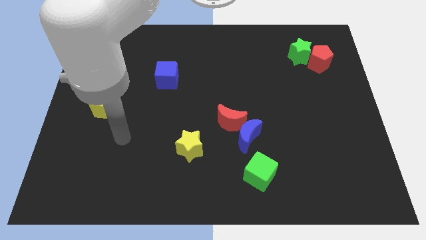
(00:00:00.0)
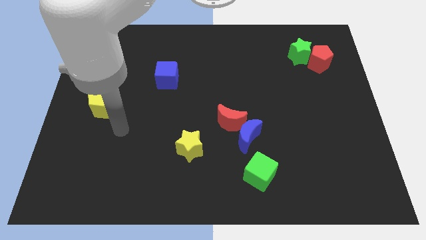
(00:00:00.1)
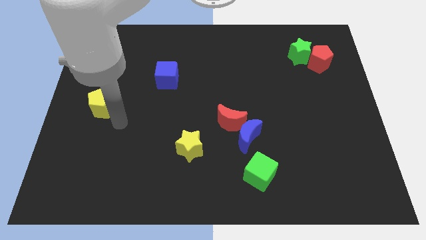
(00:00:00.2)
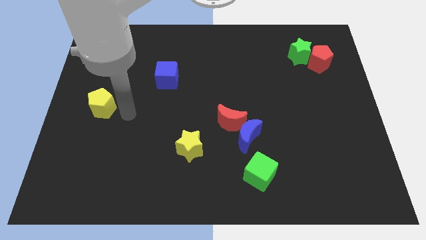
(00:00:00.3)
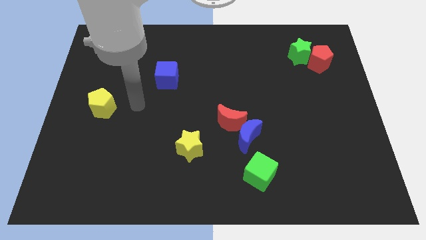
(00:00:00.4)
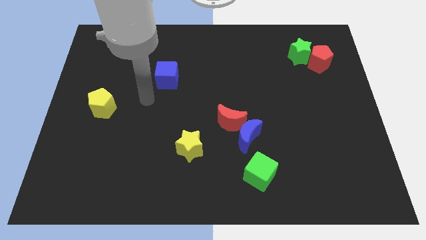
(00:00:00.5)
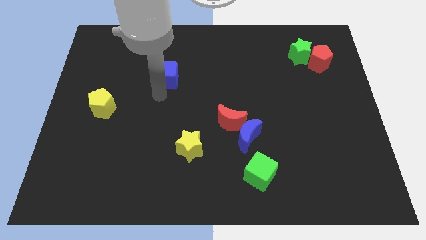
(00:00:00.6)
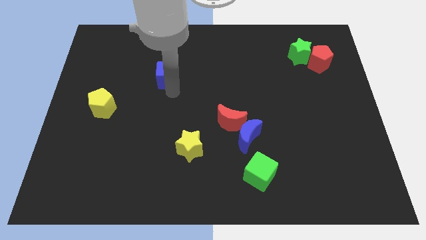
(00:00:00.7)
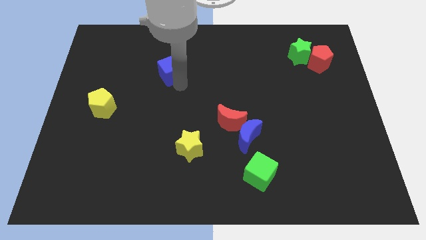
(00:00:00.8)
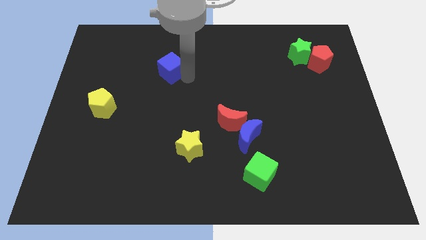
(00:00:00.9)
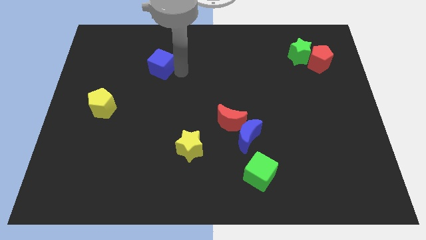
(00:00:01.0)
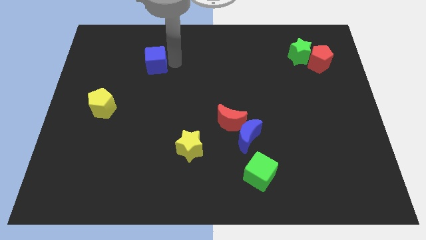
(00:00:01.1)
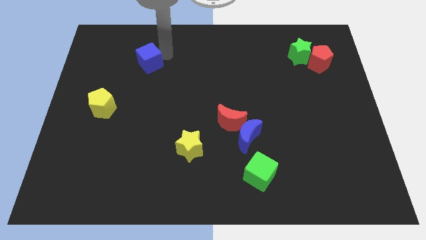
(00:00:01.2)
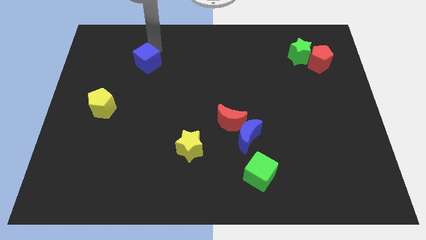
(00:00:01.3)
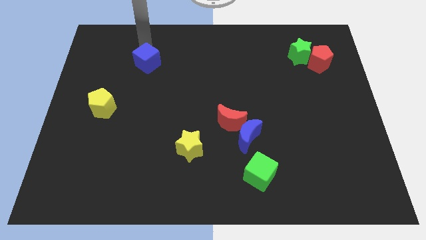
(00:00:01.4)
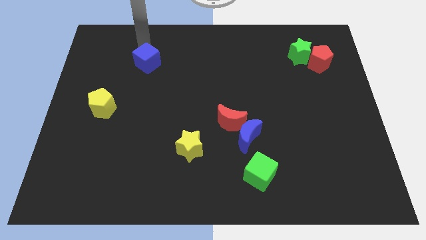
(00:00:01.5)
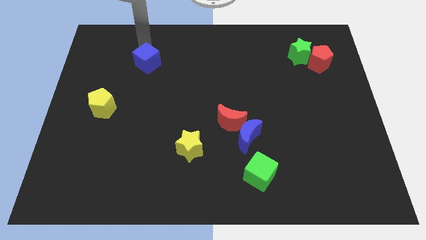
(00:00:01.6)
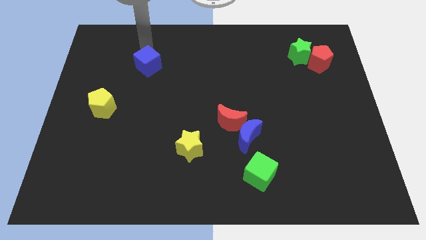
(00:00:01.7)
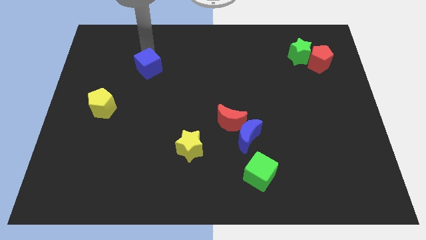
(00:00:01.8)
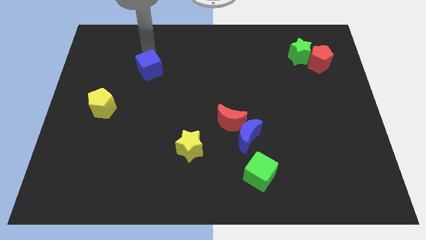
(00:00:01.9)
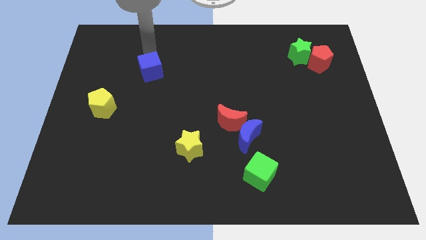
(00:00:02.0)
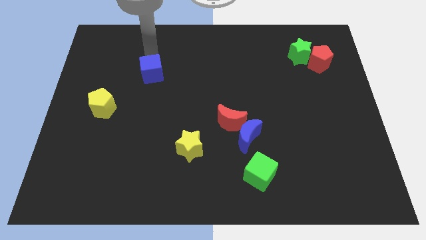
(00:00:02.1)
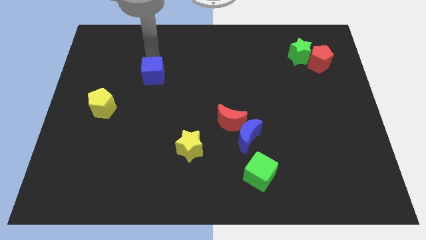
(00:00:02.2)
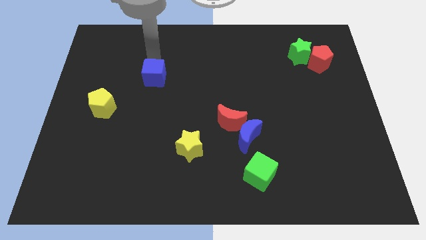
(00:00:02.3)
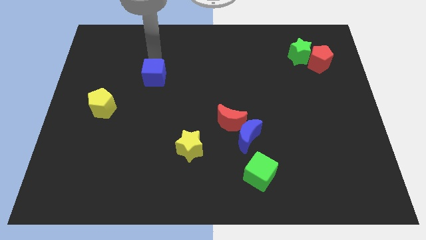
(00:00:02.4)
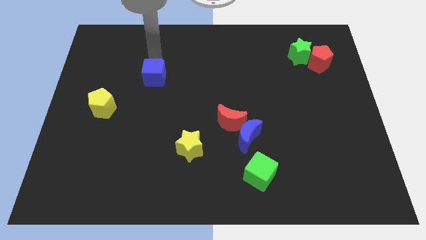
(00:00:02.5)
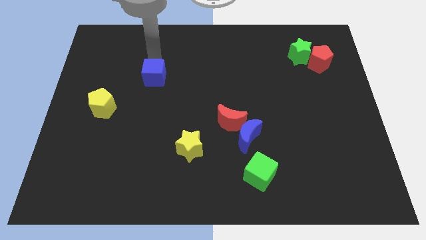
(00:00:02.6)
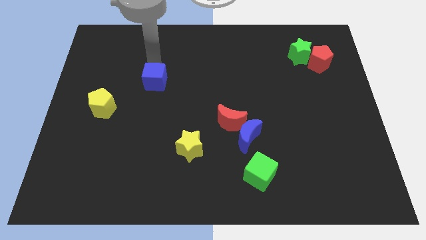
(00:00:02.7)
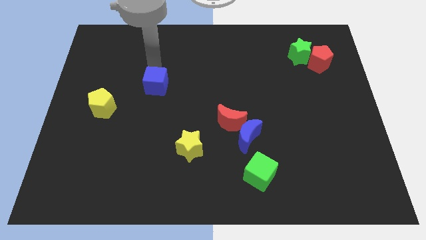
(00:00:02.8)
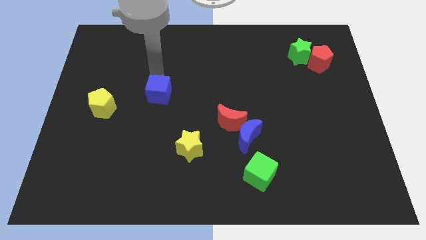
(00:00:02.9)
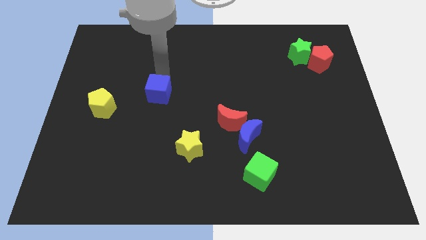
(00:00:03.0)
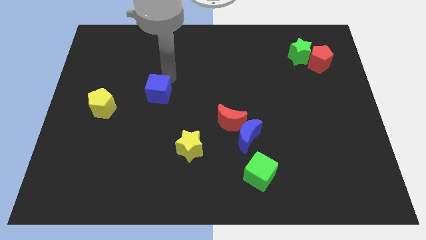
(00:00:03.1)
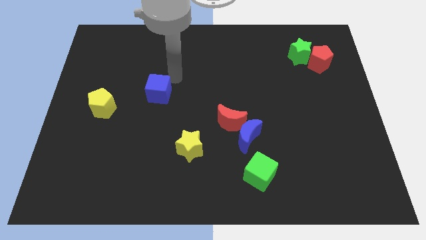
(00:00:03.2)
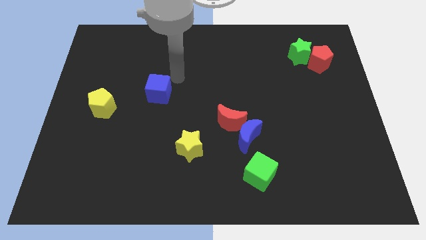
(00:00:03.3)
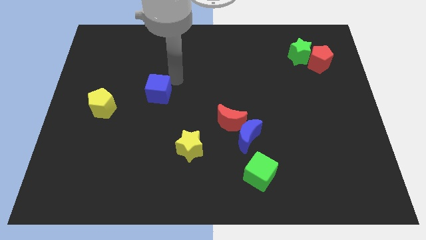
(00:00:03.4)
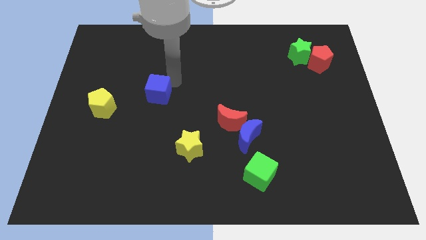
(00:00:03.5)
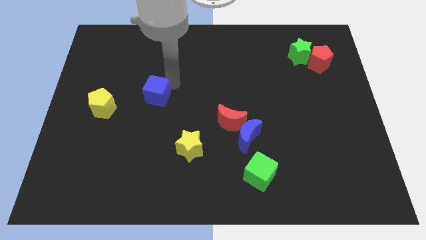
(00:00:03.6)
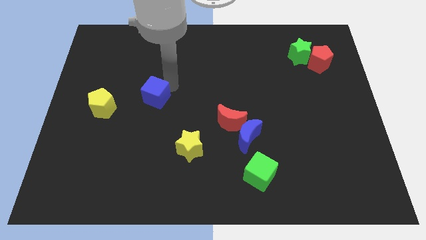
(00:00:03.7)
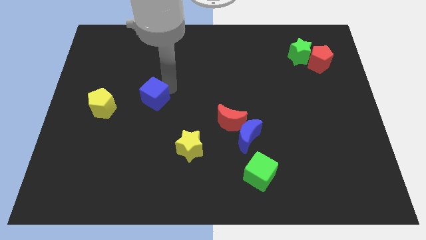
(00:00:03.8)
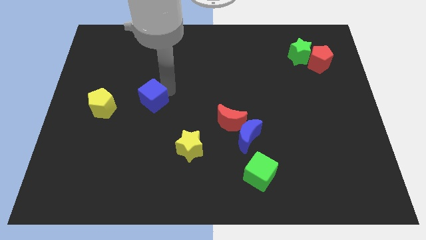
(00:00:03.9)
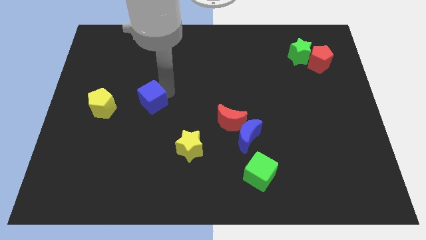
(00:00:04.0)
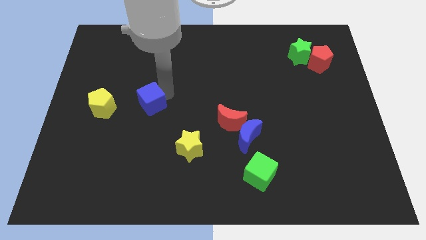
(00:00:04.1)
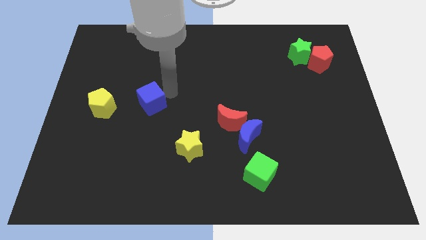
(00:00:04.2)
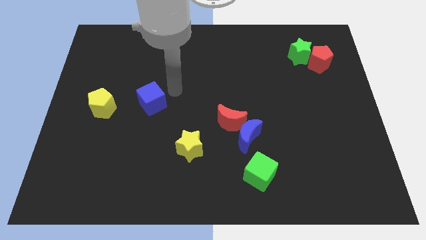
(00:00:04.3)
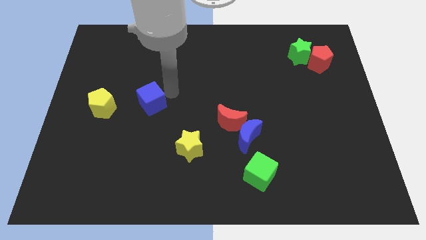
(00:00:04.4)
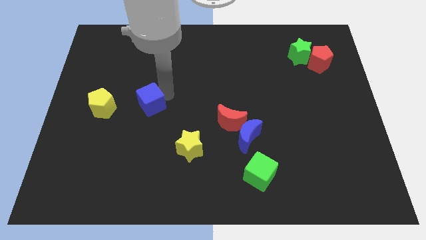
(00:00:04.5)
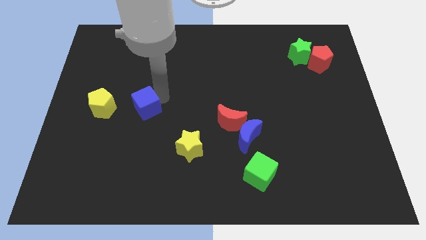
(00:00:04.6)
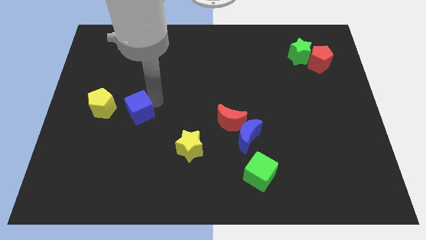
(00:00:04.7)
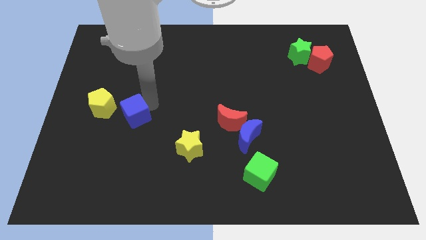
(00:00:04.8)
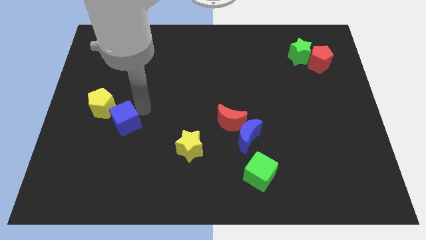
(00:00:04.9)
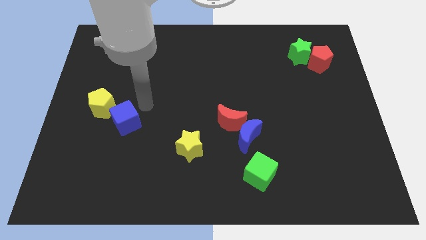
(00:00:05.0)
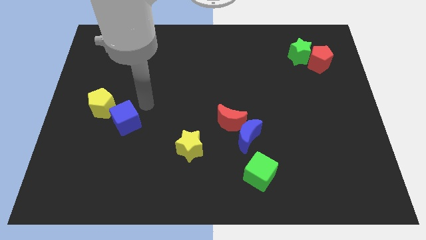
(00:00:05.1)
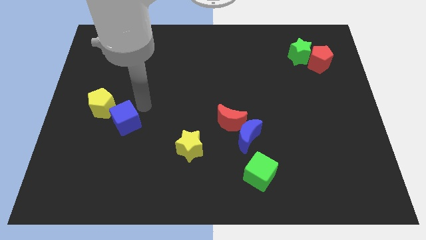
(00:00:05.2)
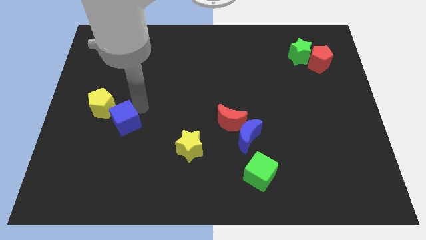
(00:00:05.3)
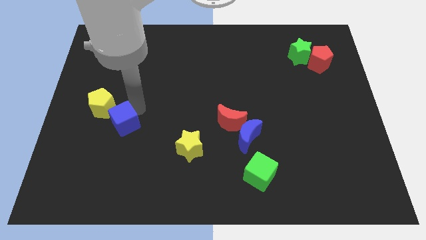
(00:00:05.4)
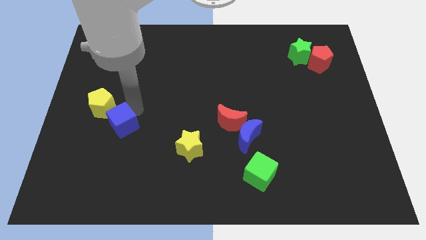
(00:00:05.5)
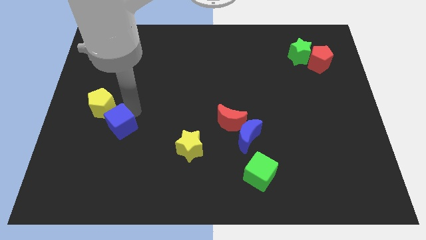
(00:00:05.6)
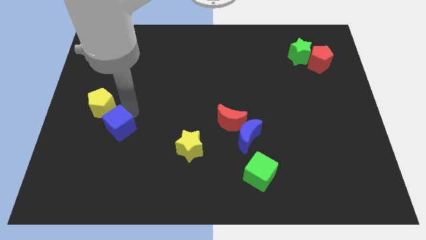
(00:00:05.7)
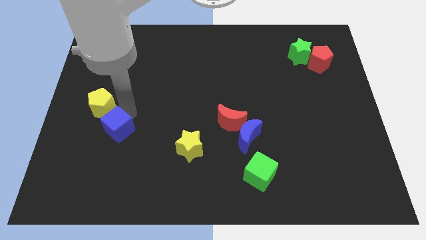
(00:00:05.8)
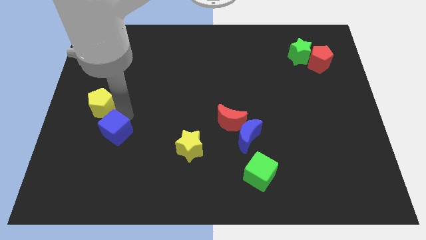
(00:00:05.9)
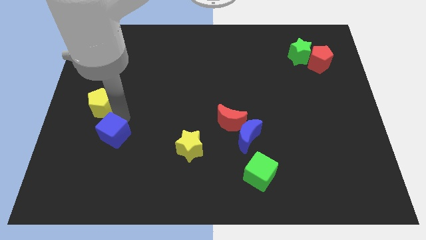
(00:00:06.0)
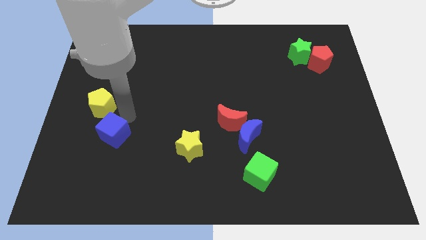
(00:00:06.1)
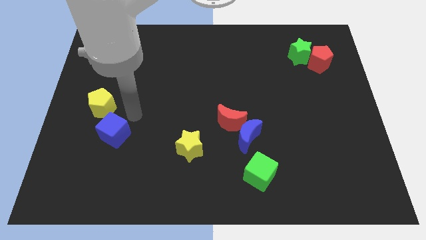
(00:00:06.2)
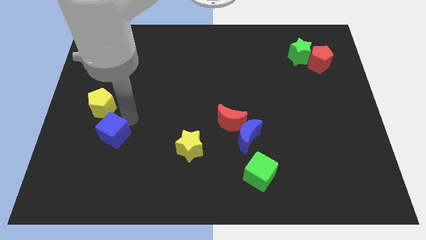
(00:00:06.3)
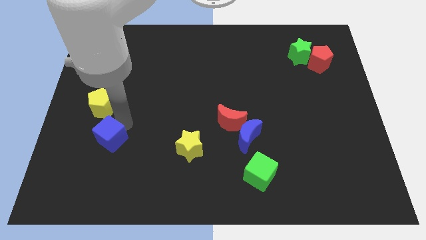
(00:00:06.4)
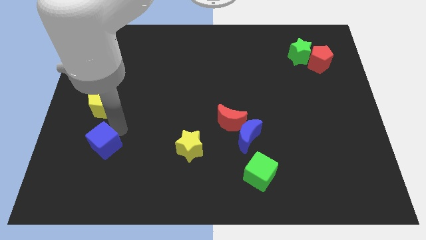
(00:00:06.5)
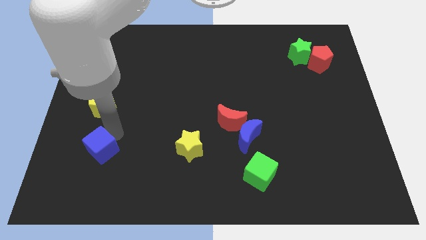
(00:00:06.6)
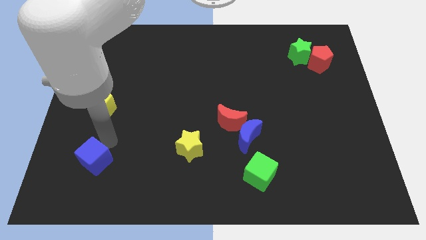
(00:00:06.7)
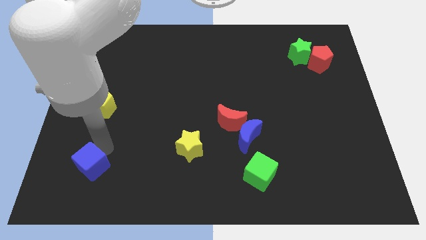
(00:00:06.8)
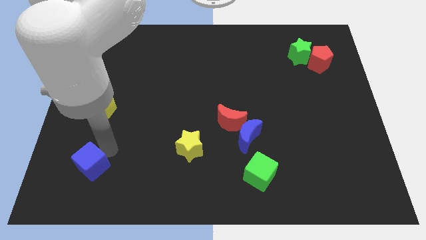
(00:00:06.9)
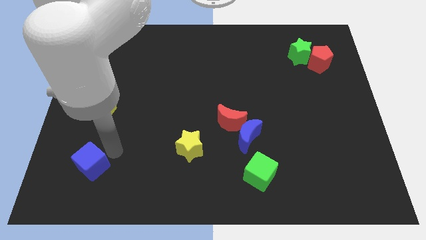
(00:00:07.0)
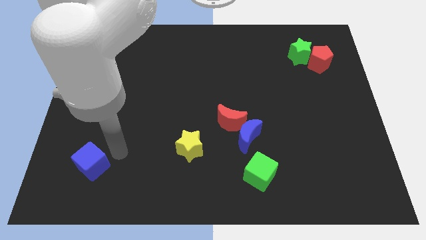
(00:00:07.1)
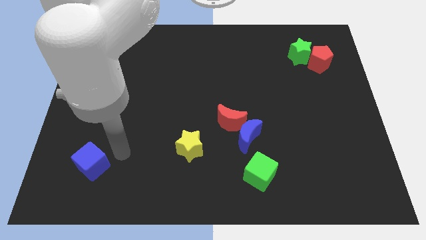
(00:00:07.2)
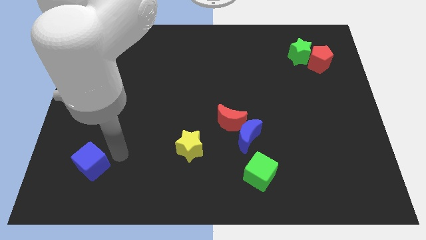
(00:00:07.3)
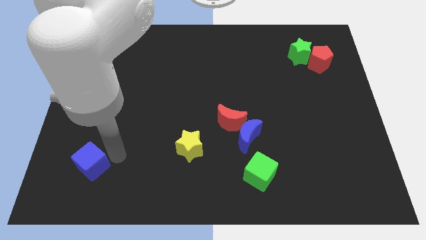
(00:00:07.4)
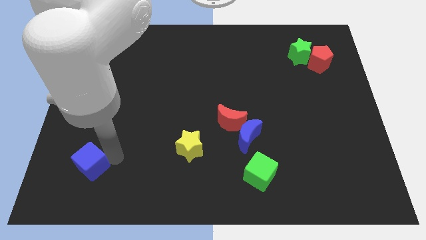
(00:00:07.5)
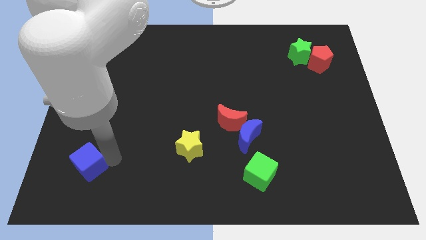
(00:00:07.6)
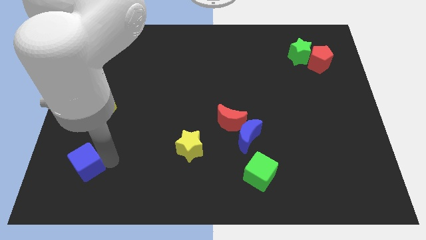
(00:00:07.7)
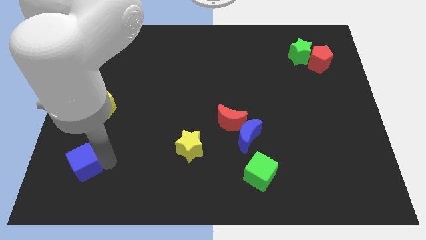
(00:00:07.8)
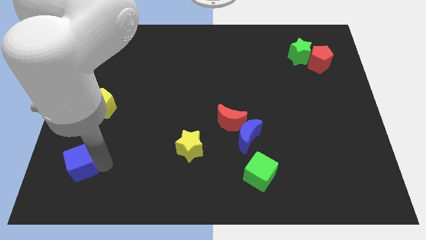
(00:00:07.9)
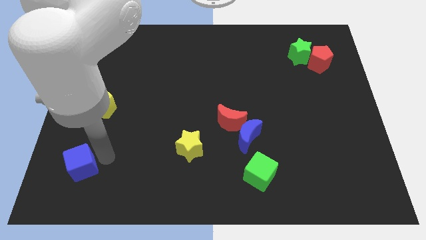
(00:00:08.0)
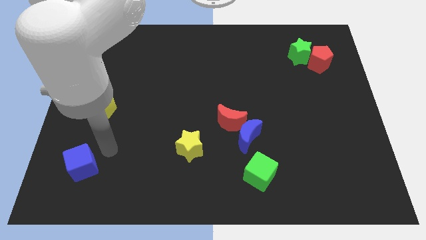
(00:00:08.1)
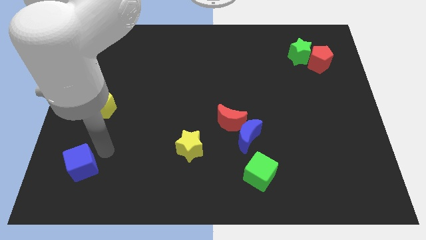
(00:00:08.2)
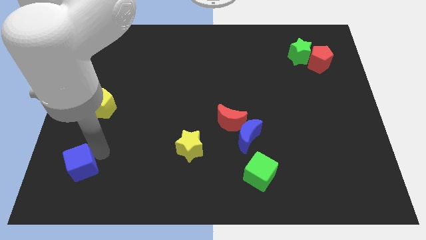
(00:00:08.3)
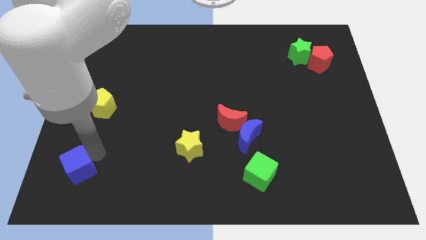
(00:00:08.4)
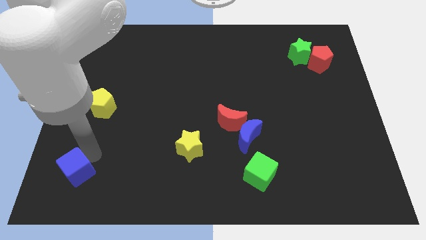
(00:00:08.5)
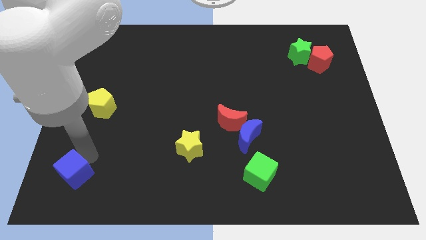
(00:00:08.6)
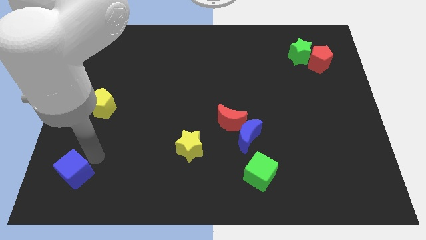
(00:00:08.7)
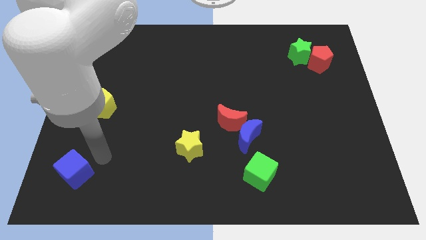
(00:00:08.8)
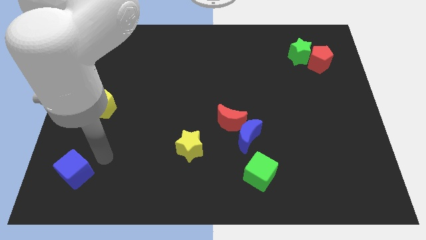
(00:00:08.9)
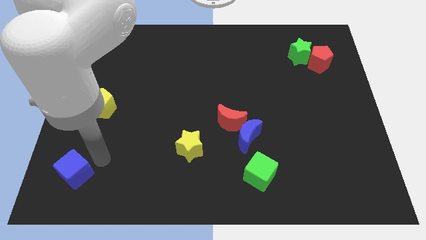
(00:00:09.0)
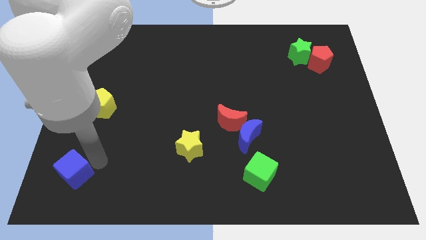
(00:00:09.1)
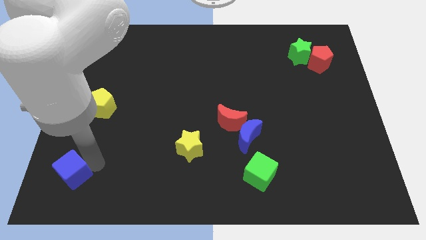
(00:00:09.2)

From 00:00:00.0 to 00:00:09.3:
move the blue cube to the bottom left
